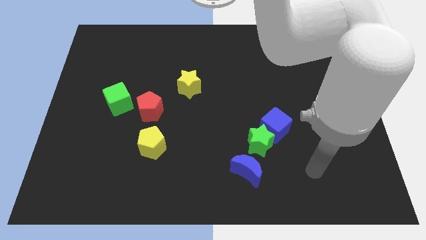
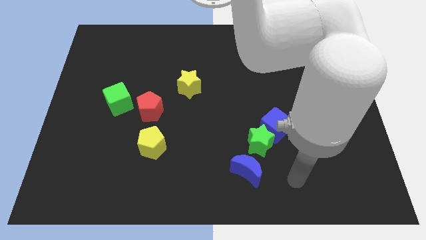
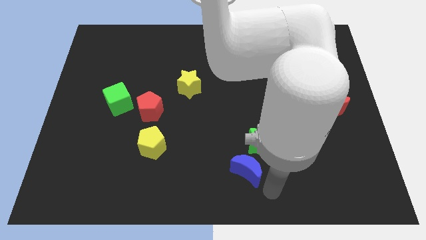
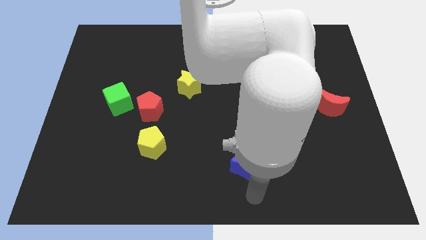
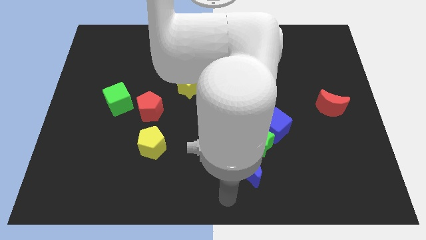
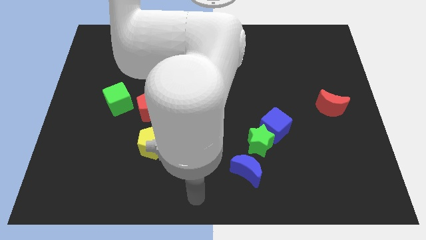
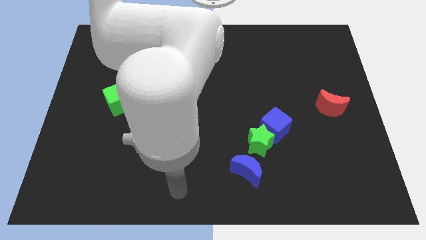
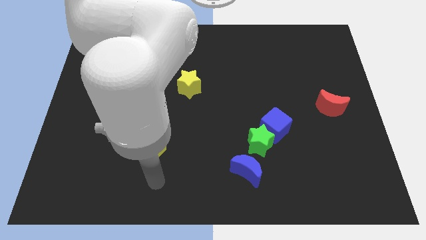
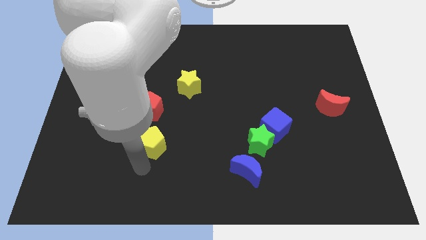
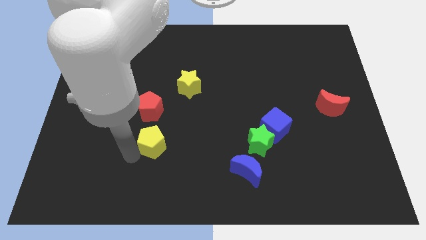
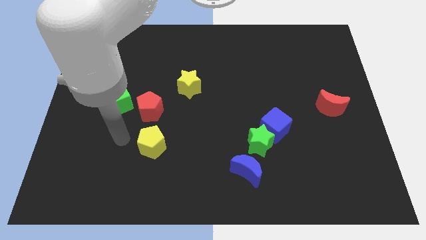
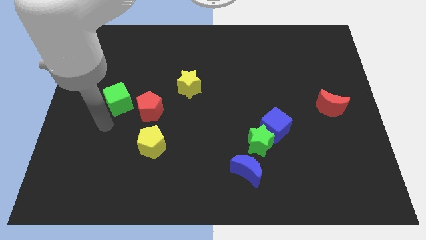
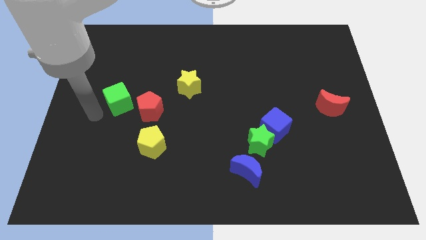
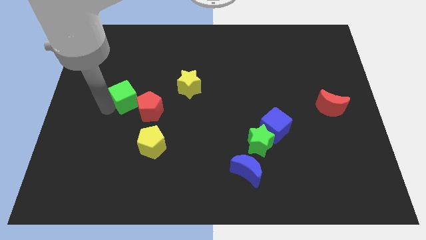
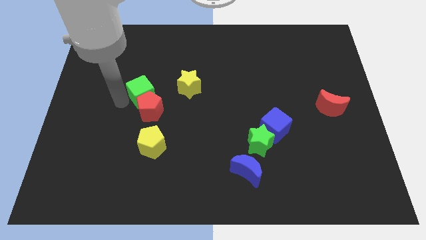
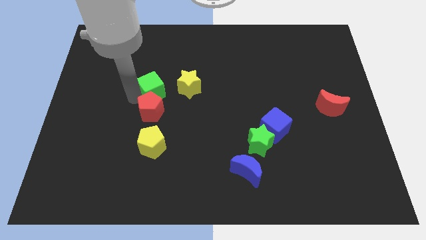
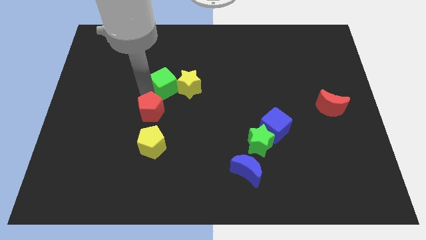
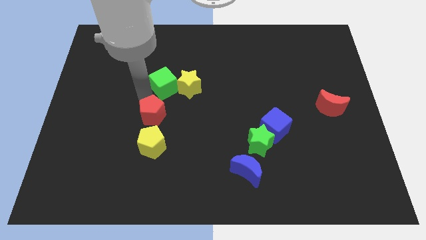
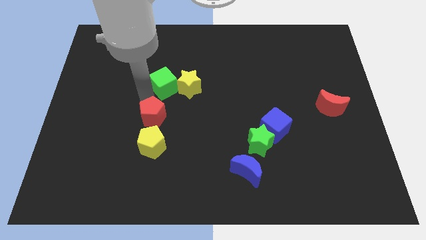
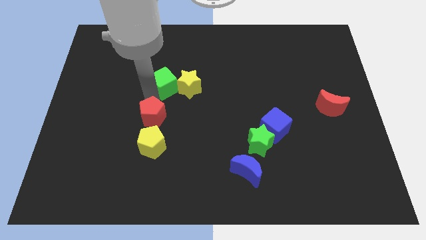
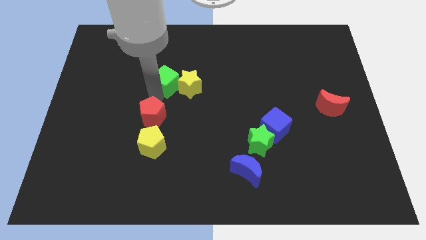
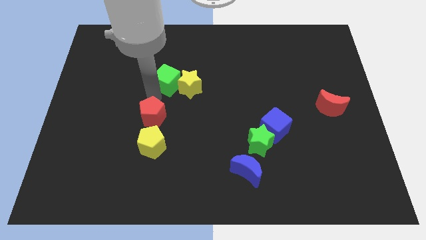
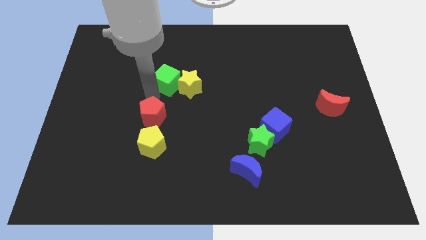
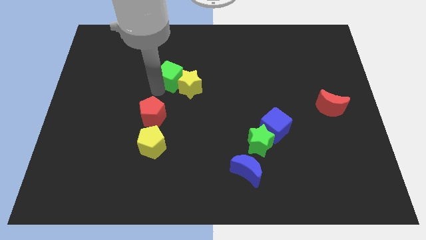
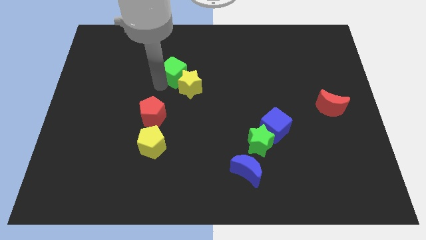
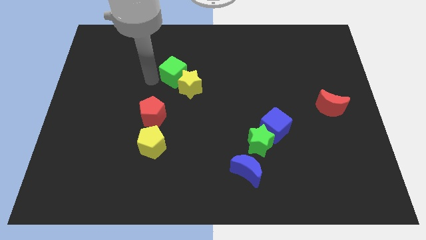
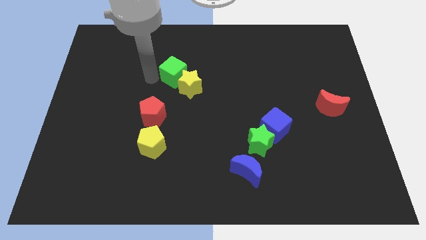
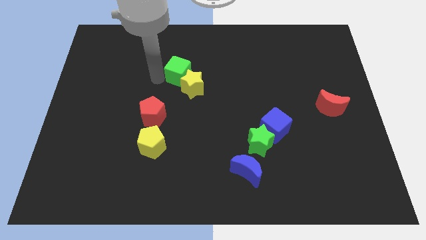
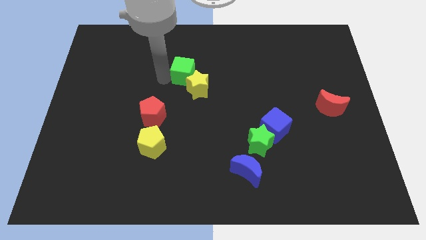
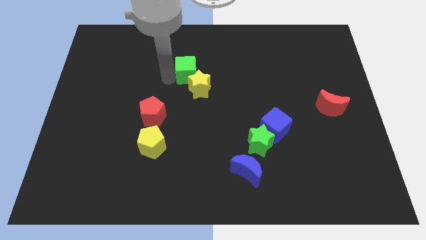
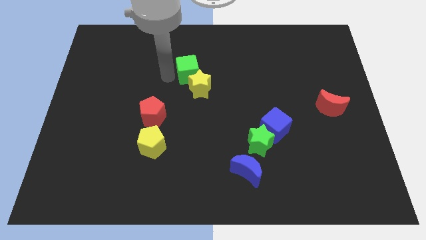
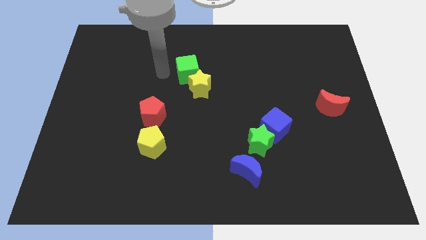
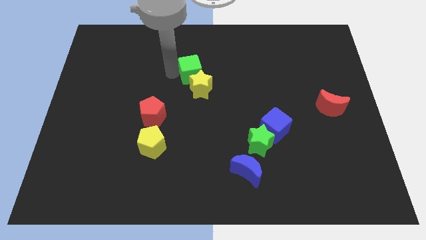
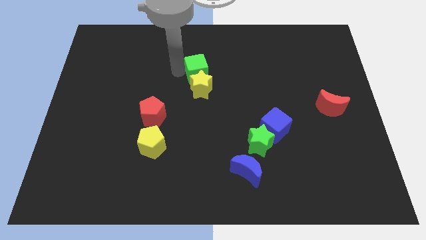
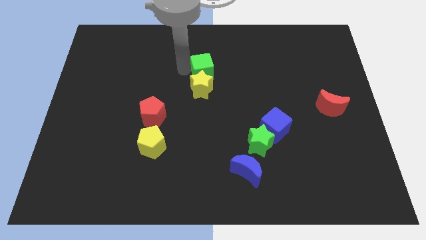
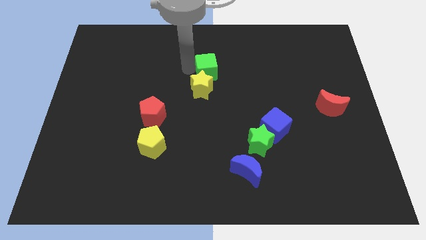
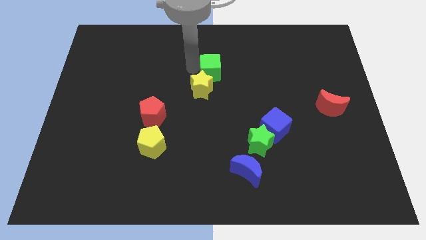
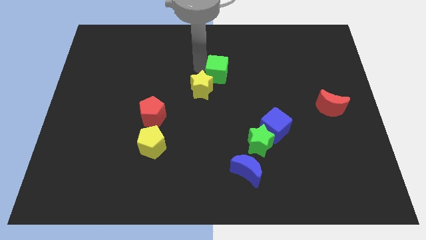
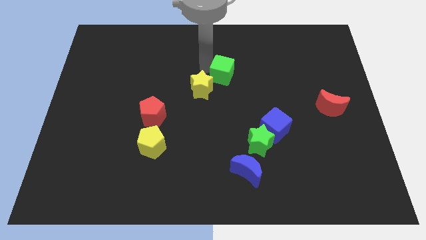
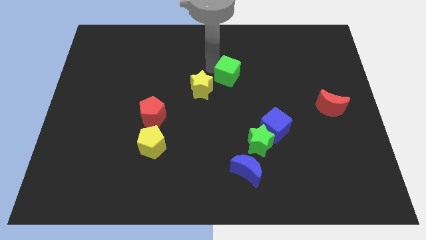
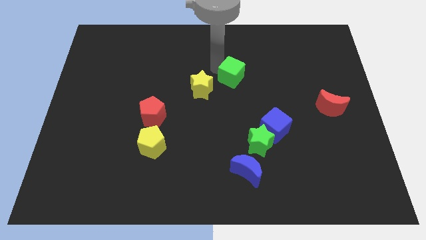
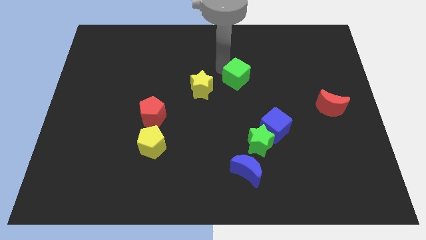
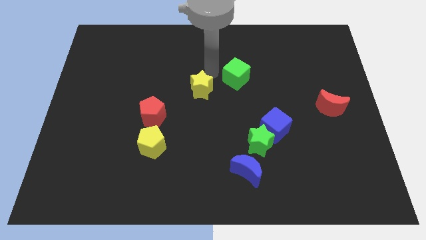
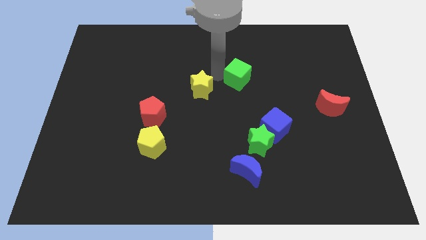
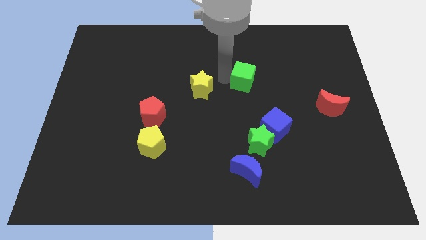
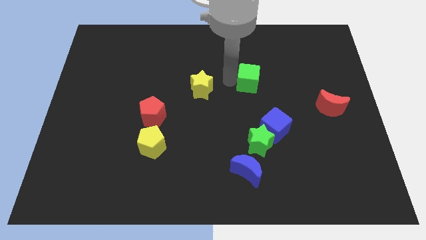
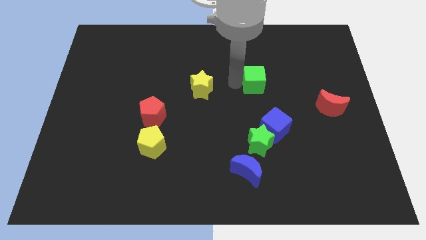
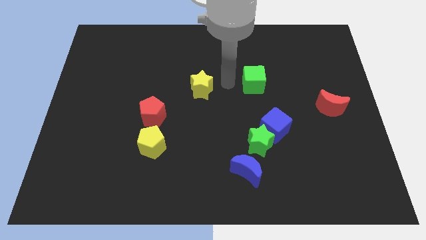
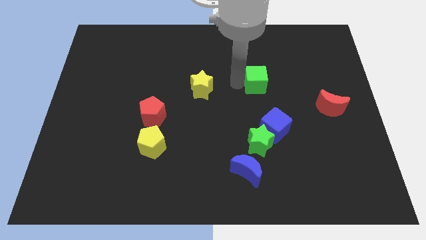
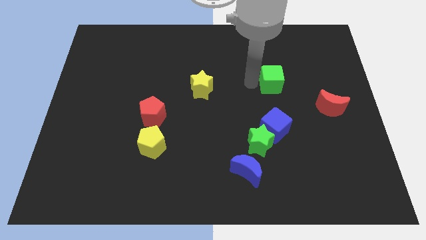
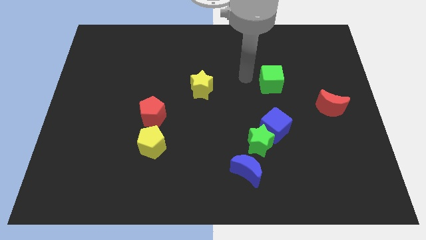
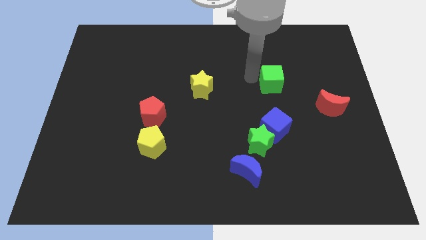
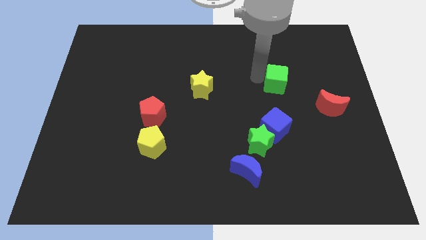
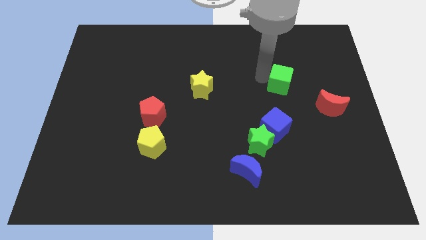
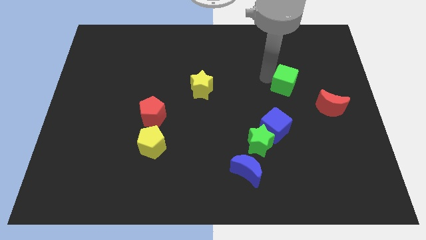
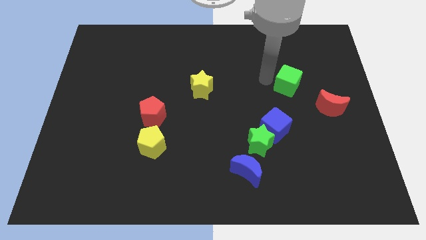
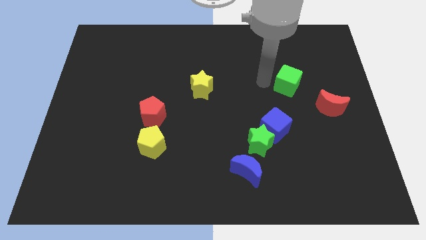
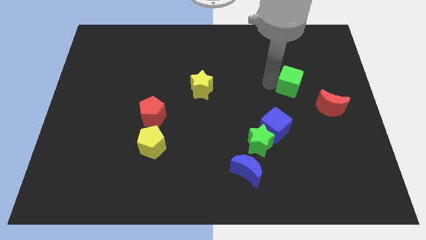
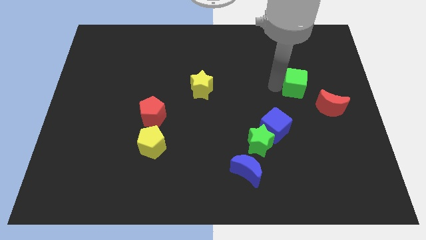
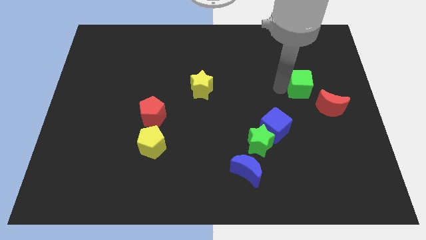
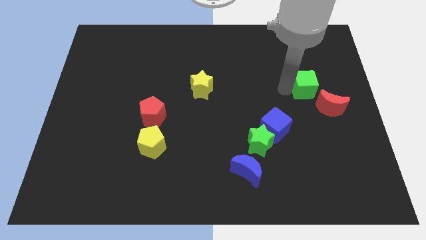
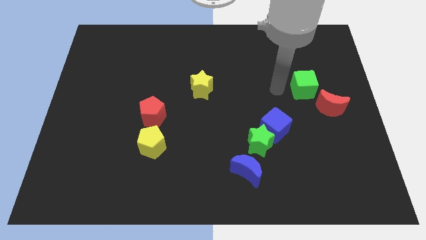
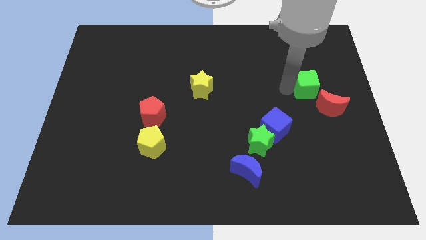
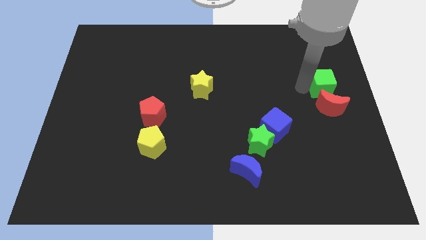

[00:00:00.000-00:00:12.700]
slide the green cube to the right side of the board

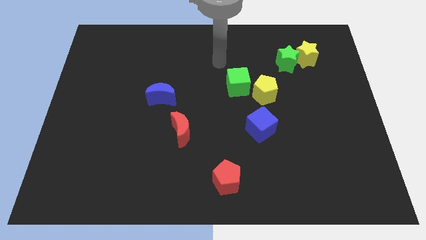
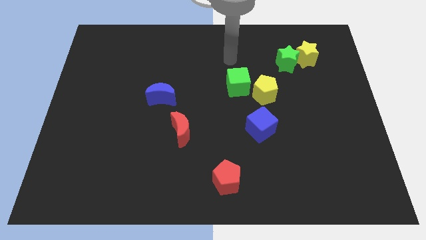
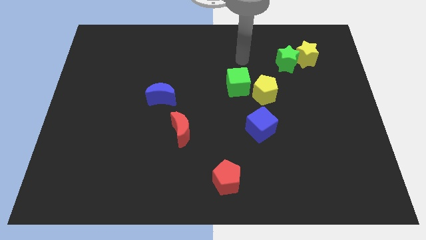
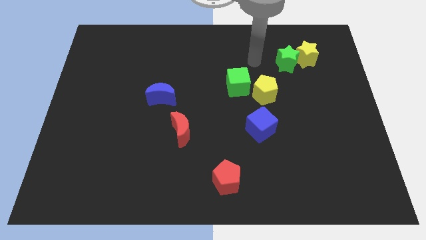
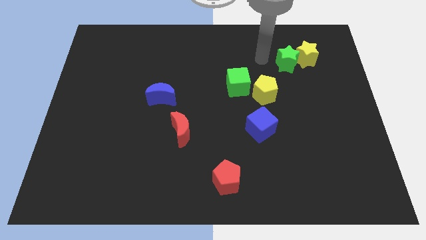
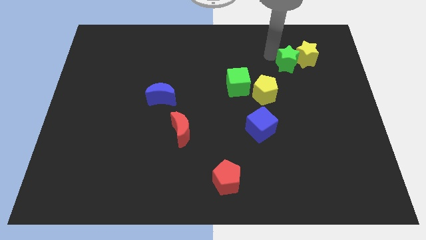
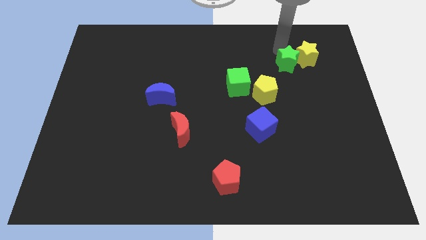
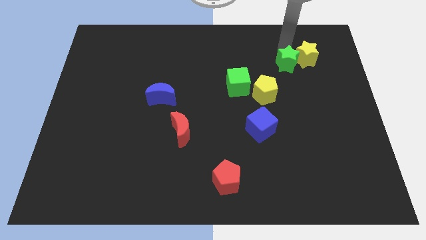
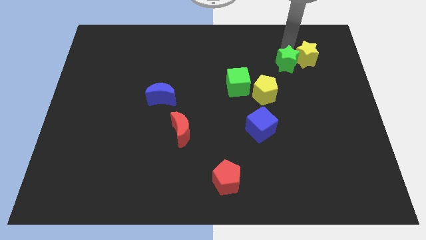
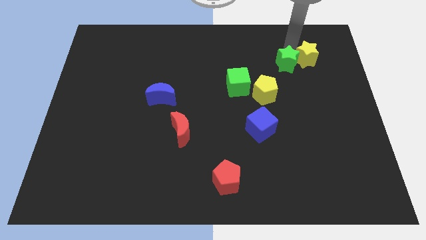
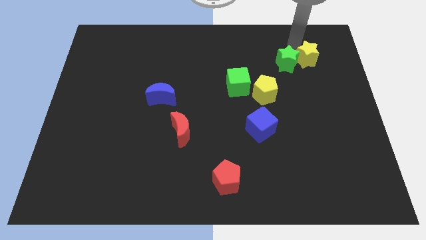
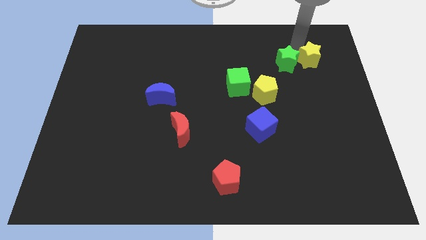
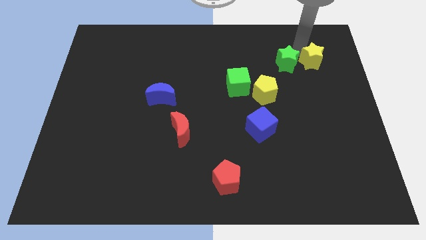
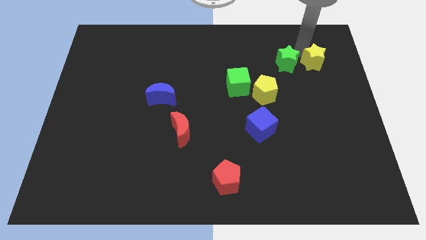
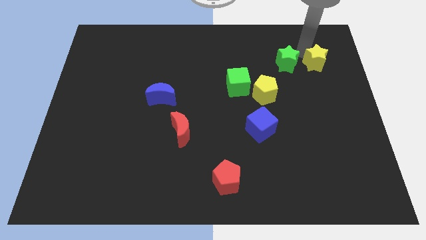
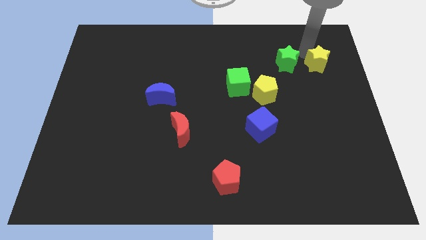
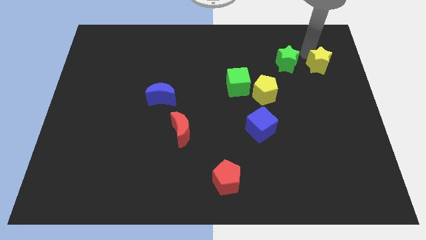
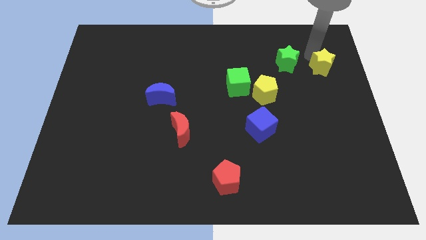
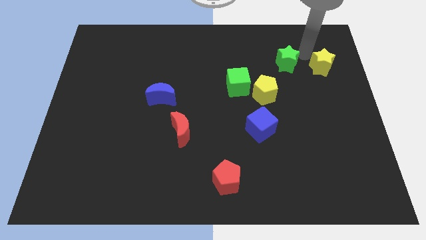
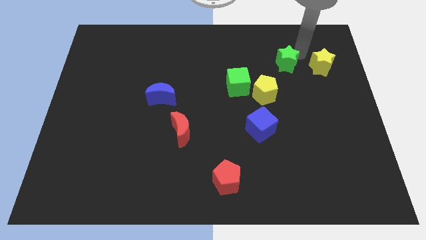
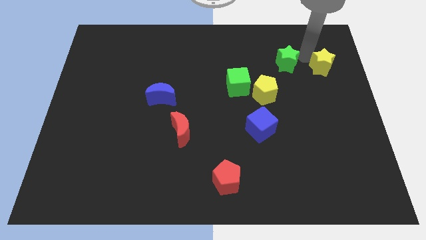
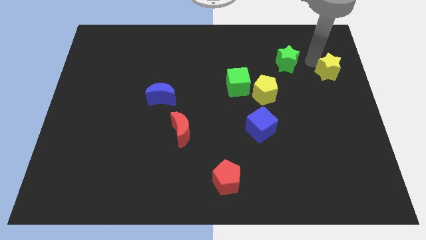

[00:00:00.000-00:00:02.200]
push the yellow star to the right side
